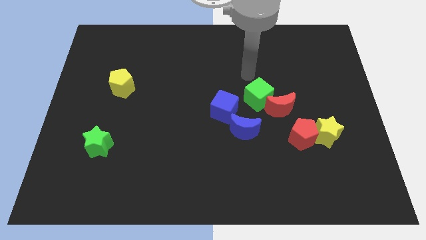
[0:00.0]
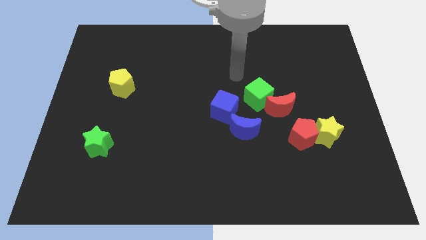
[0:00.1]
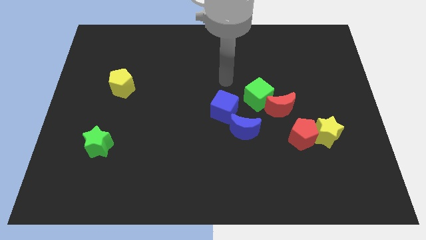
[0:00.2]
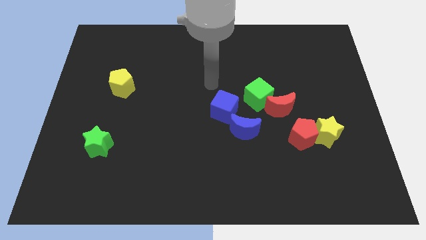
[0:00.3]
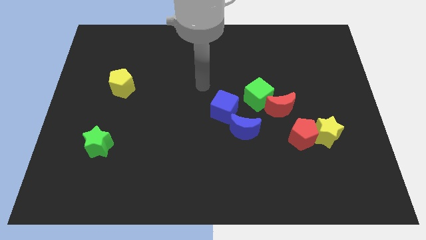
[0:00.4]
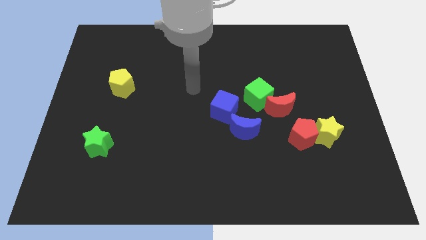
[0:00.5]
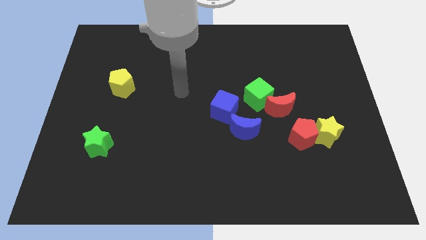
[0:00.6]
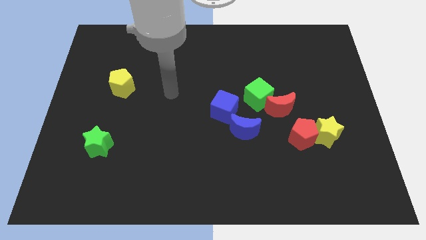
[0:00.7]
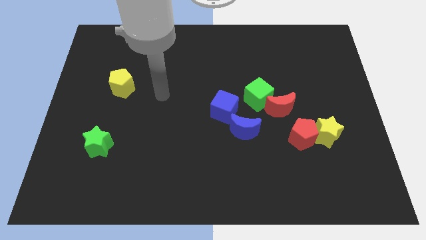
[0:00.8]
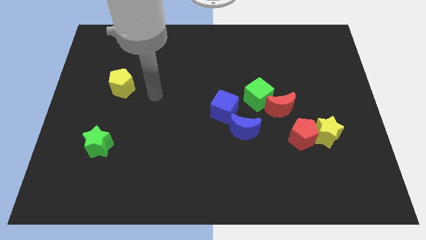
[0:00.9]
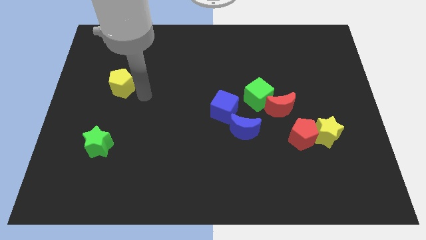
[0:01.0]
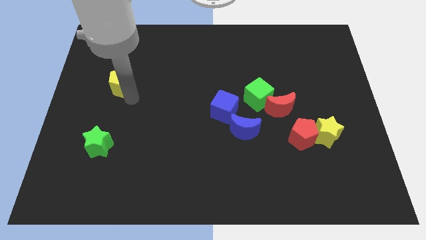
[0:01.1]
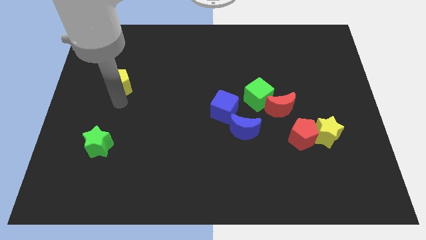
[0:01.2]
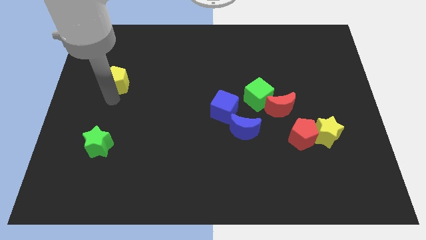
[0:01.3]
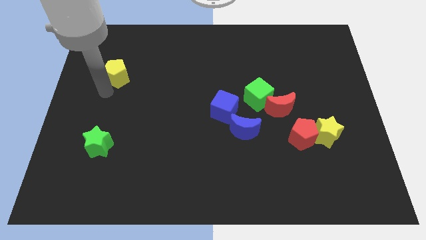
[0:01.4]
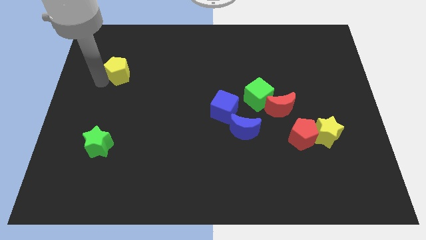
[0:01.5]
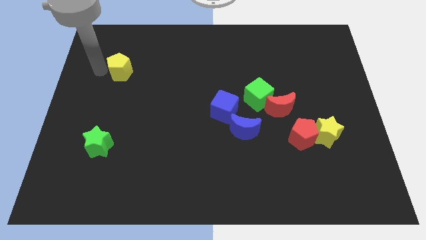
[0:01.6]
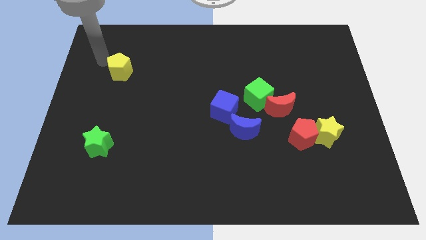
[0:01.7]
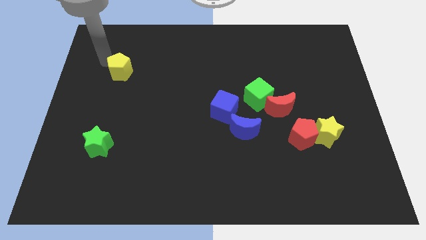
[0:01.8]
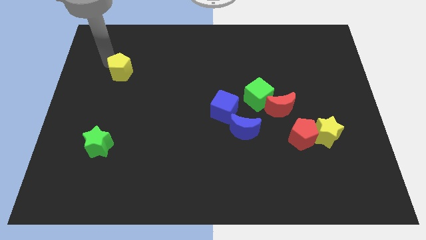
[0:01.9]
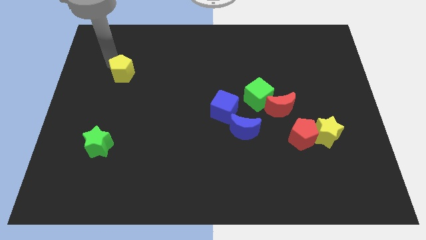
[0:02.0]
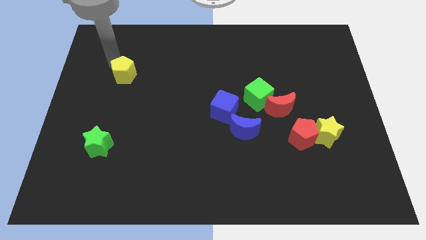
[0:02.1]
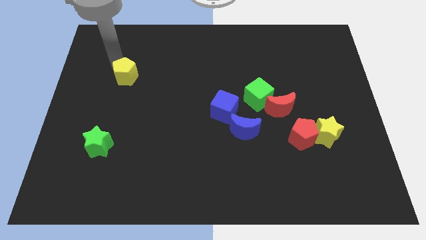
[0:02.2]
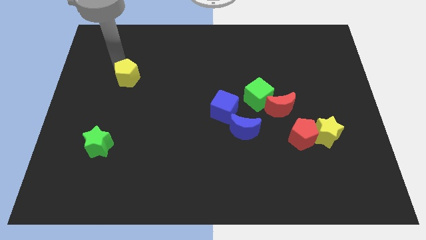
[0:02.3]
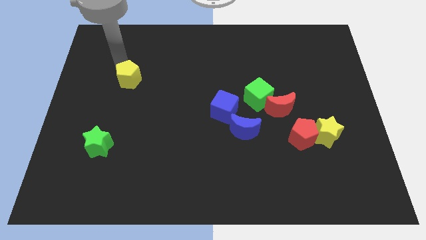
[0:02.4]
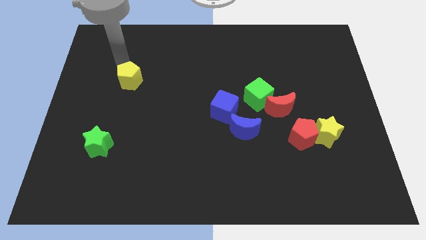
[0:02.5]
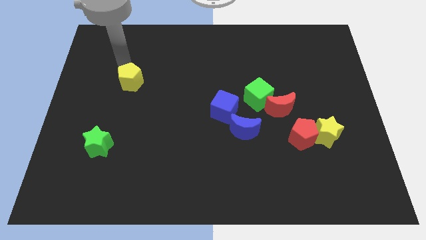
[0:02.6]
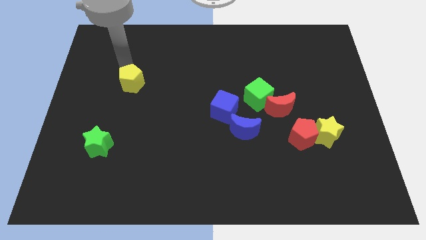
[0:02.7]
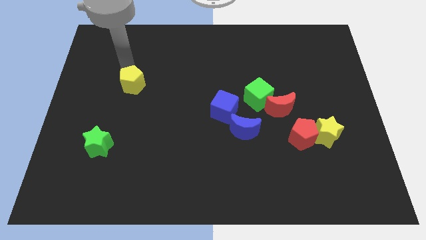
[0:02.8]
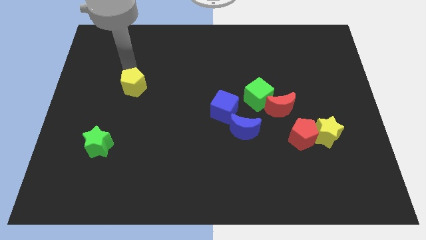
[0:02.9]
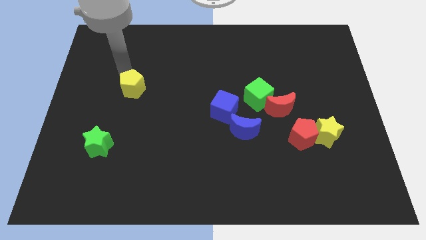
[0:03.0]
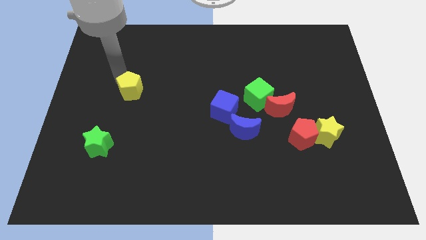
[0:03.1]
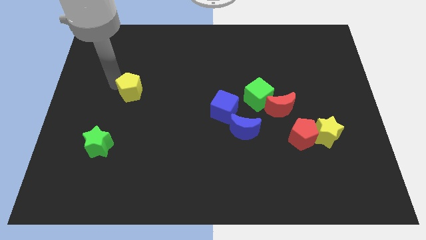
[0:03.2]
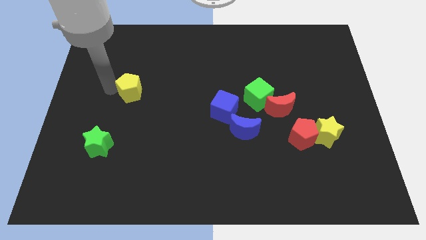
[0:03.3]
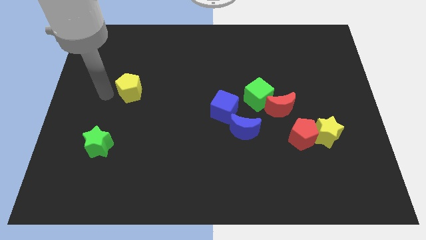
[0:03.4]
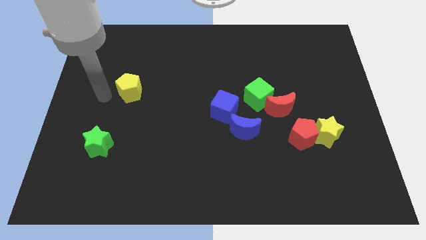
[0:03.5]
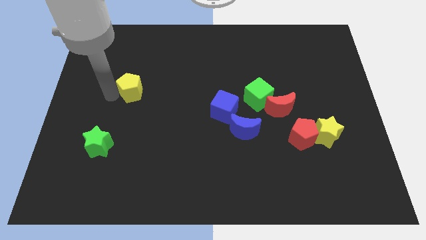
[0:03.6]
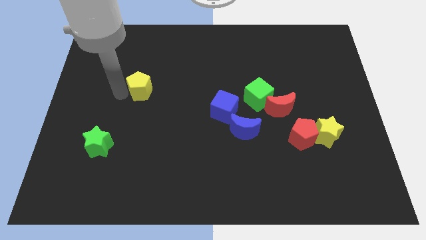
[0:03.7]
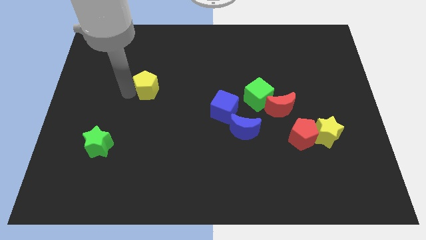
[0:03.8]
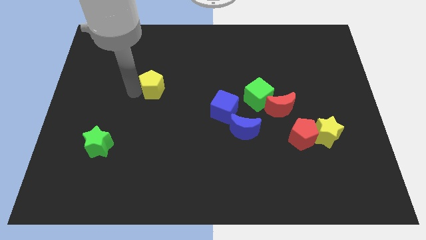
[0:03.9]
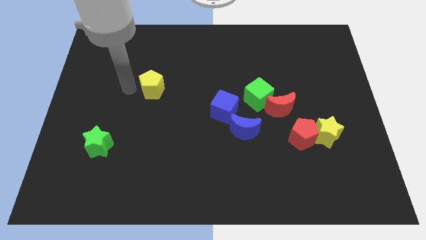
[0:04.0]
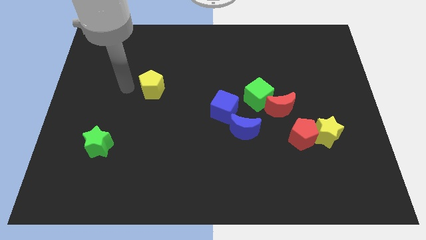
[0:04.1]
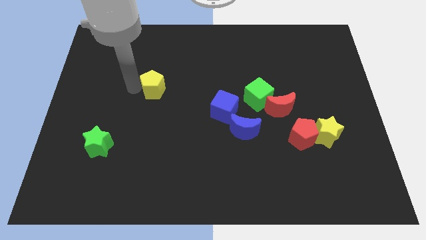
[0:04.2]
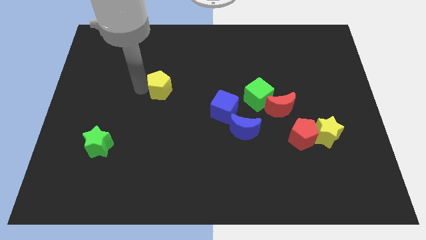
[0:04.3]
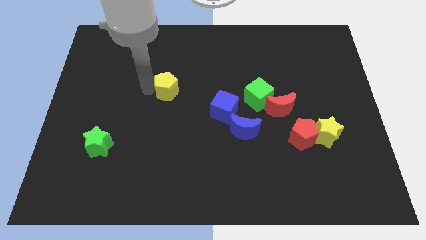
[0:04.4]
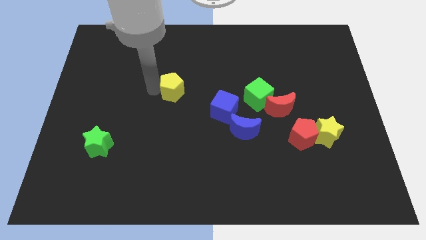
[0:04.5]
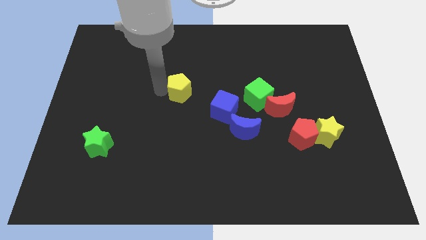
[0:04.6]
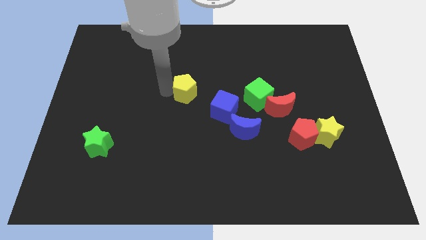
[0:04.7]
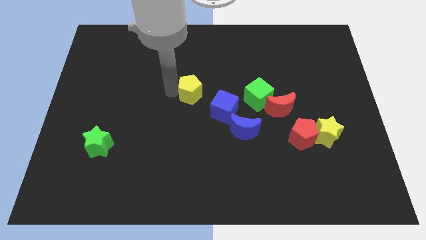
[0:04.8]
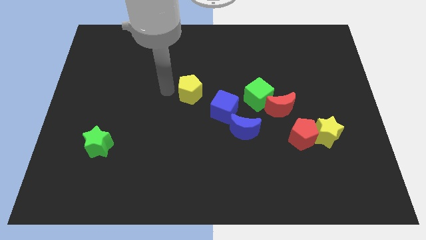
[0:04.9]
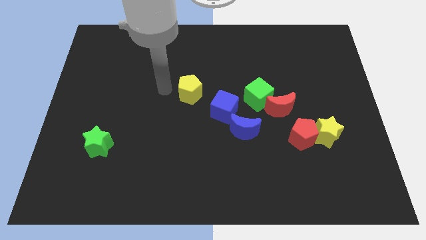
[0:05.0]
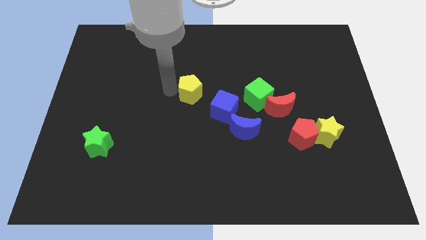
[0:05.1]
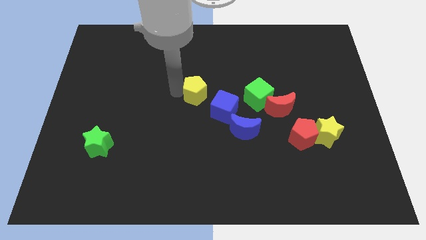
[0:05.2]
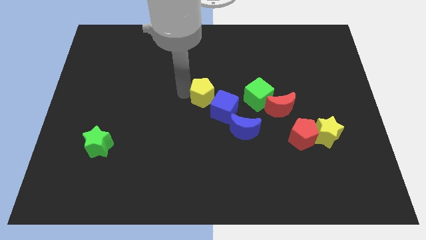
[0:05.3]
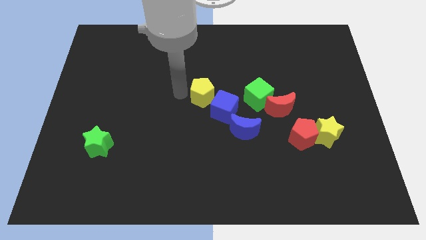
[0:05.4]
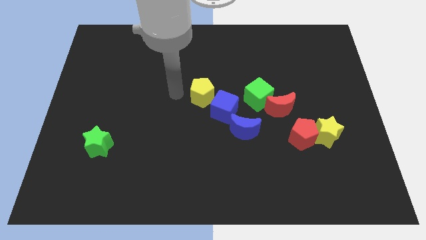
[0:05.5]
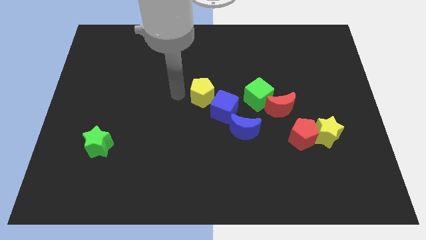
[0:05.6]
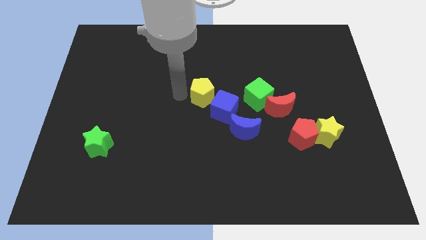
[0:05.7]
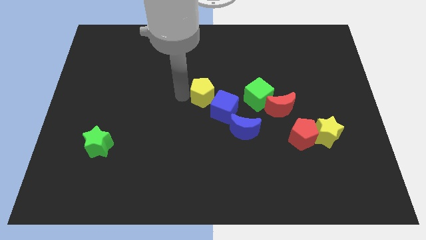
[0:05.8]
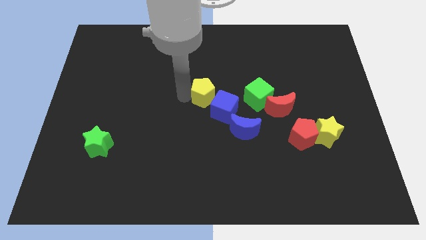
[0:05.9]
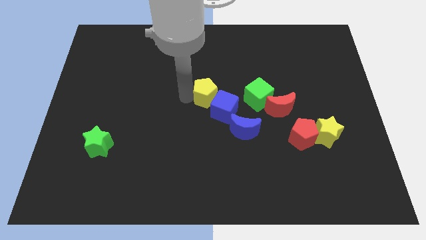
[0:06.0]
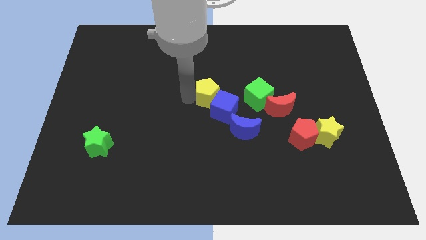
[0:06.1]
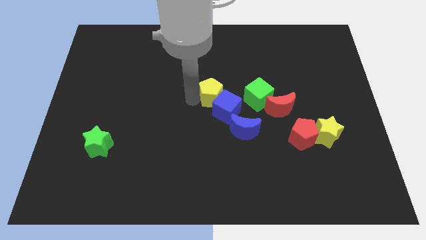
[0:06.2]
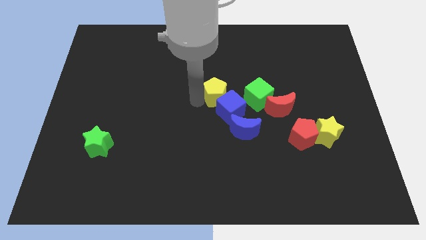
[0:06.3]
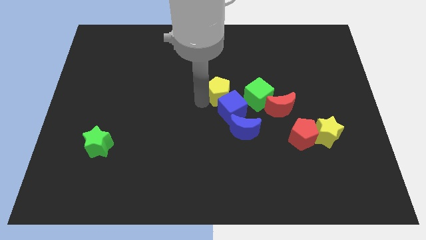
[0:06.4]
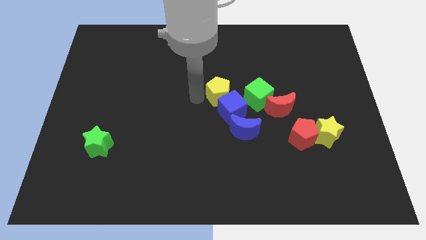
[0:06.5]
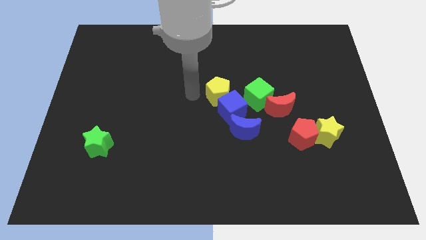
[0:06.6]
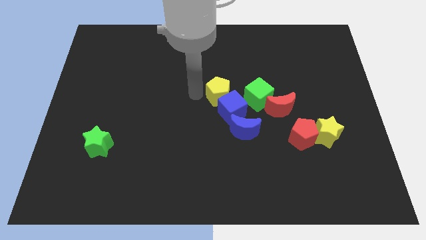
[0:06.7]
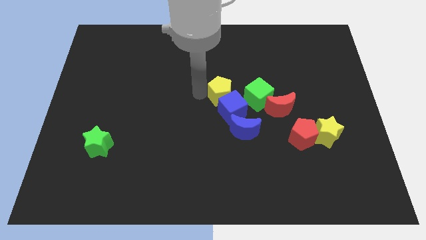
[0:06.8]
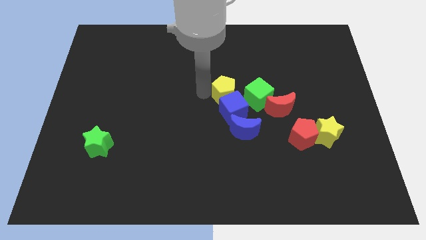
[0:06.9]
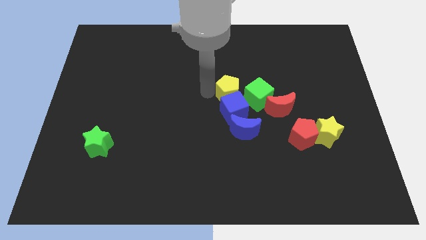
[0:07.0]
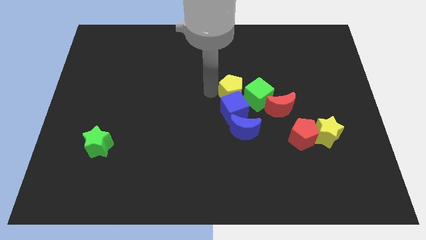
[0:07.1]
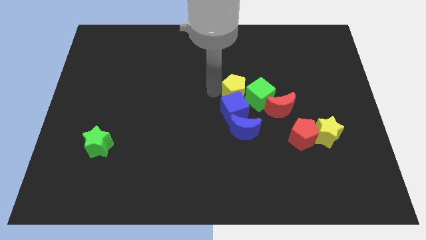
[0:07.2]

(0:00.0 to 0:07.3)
put the yellow pentagon close to the green cube
